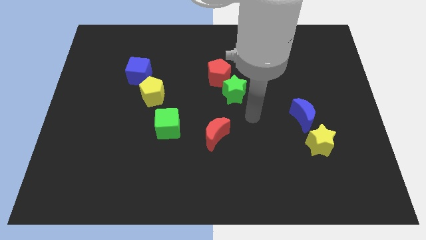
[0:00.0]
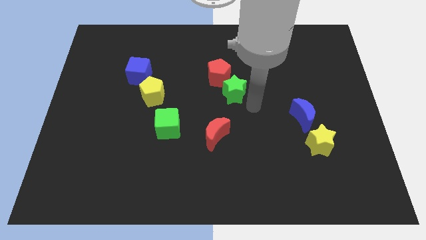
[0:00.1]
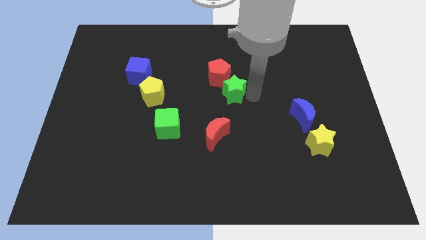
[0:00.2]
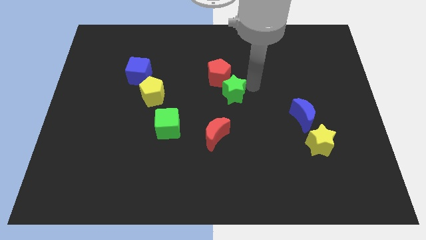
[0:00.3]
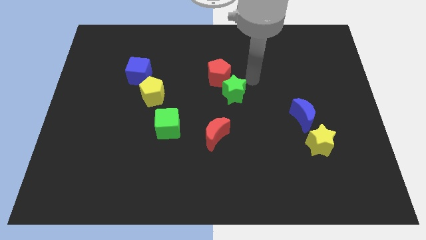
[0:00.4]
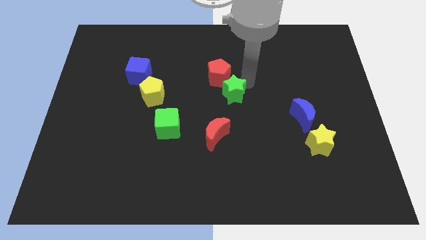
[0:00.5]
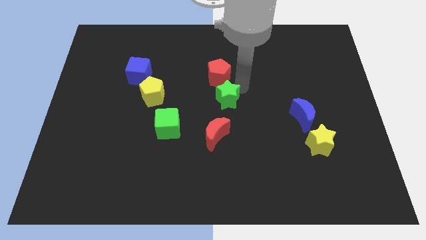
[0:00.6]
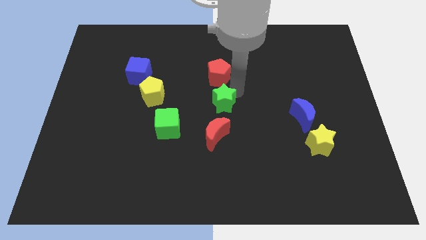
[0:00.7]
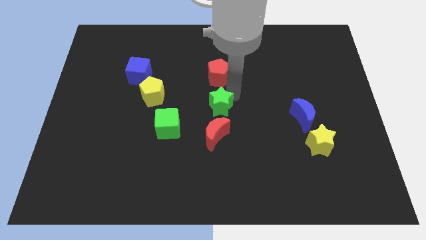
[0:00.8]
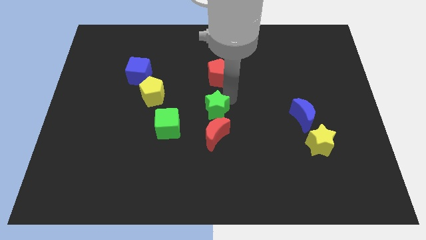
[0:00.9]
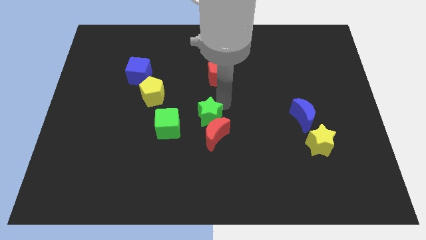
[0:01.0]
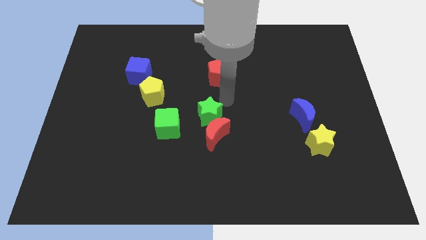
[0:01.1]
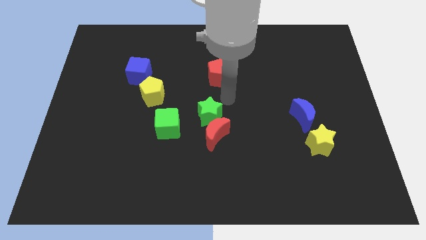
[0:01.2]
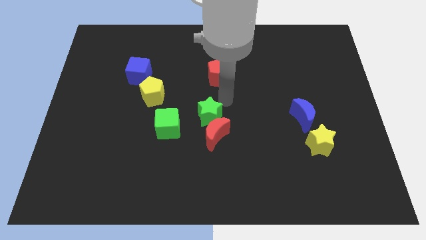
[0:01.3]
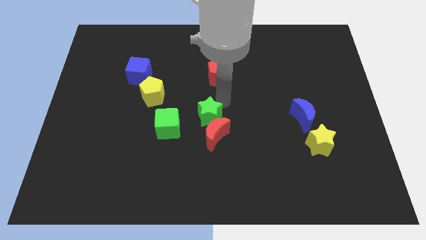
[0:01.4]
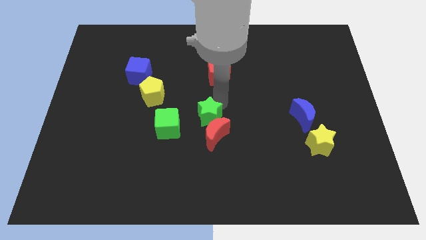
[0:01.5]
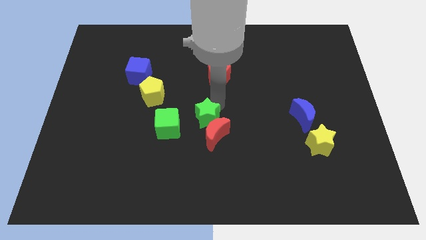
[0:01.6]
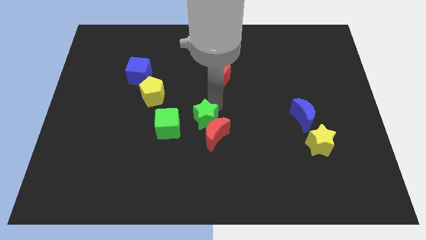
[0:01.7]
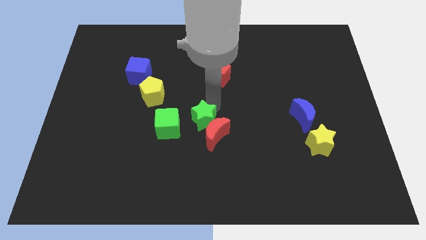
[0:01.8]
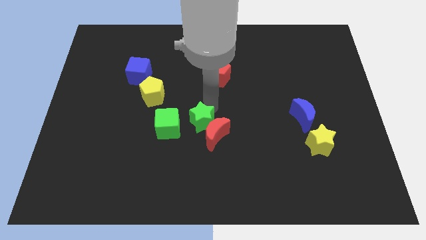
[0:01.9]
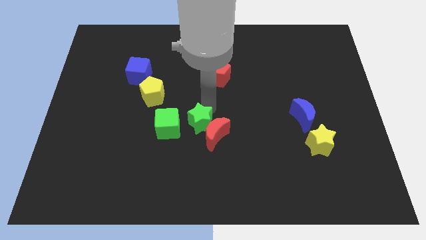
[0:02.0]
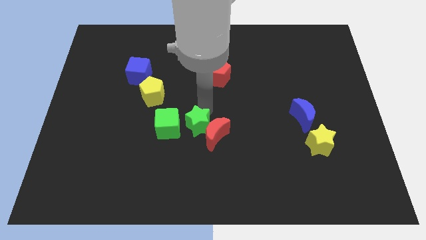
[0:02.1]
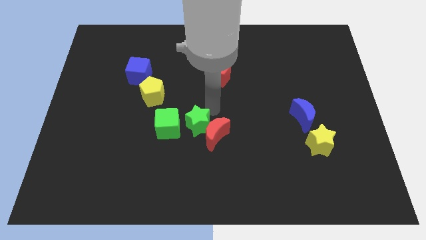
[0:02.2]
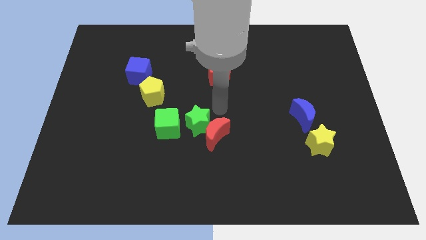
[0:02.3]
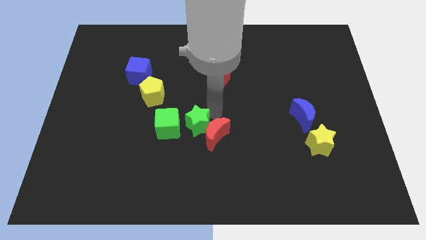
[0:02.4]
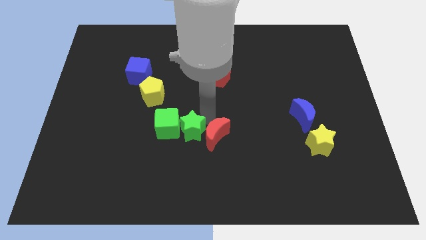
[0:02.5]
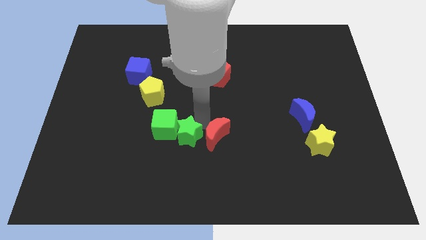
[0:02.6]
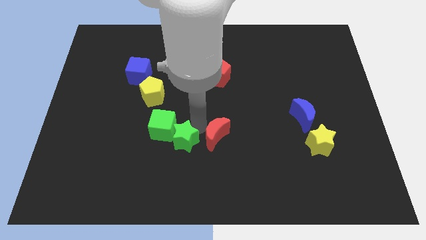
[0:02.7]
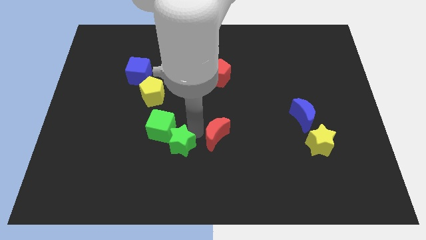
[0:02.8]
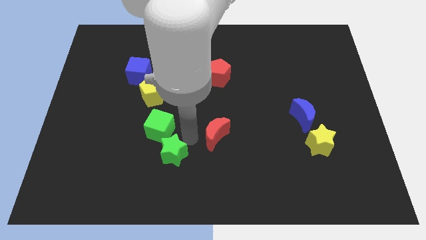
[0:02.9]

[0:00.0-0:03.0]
push the green star downwards and left

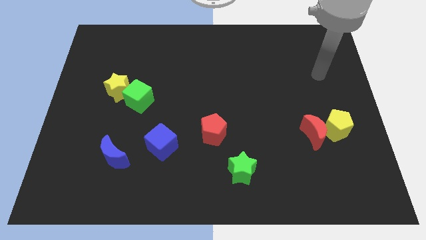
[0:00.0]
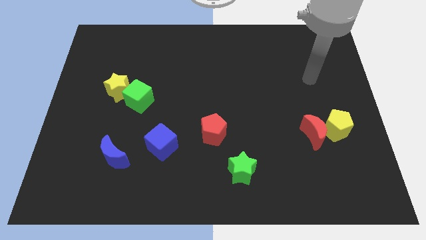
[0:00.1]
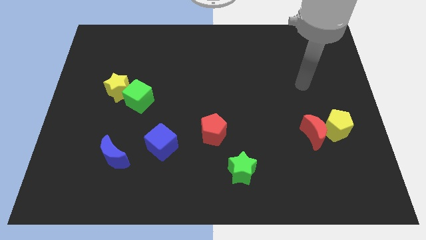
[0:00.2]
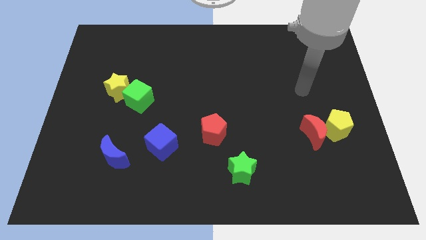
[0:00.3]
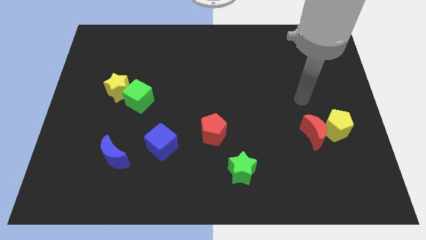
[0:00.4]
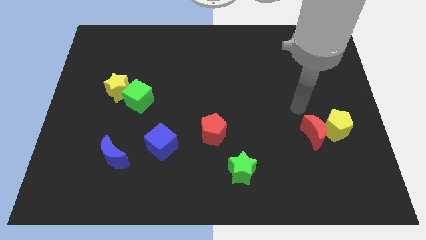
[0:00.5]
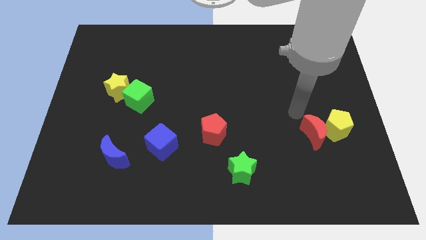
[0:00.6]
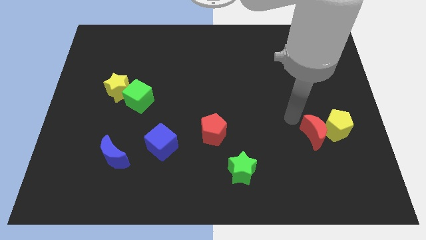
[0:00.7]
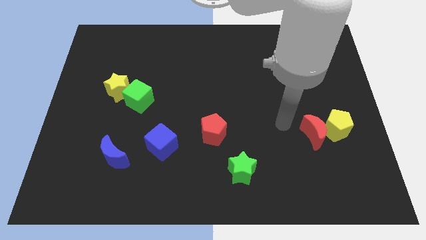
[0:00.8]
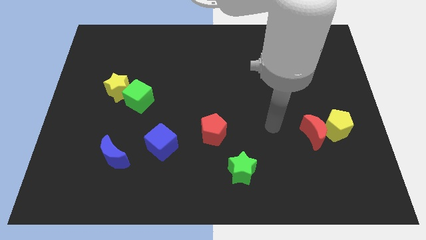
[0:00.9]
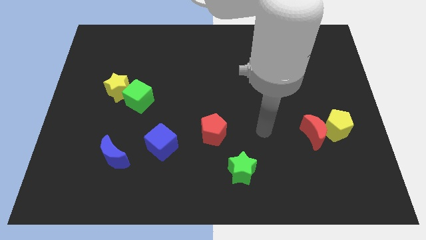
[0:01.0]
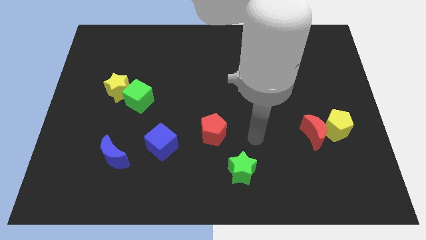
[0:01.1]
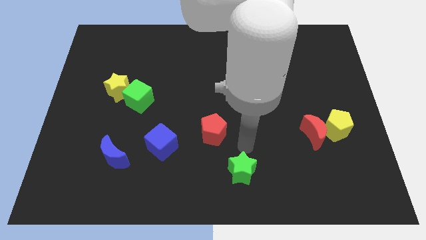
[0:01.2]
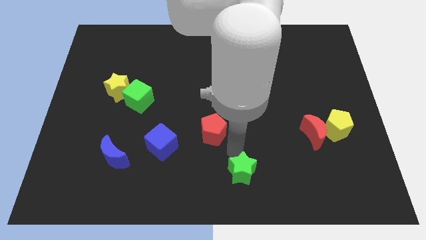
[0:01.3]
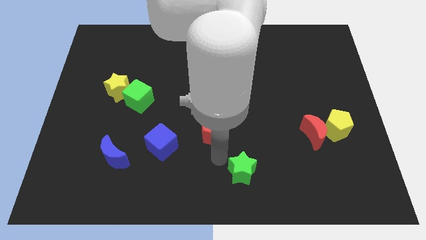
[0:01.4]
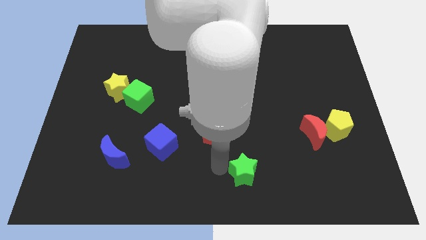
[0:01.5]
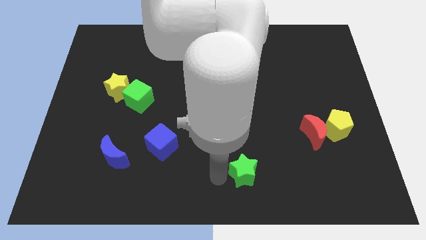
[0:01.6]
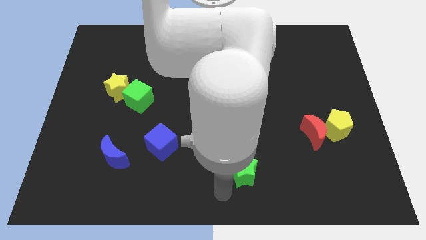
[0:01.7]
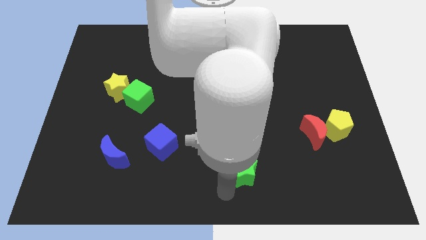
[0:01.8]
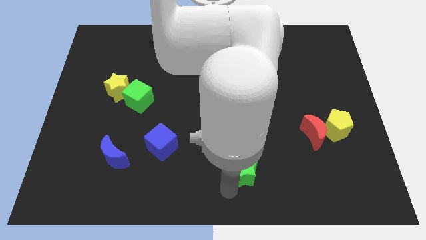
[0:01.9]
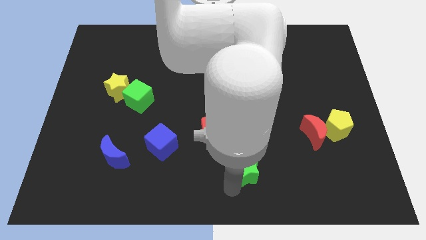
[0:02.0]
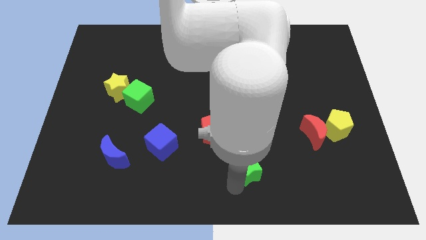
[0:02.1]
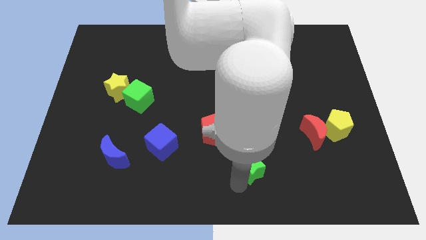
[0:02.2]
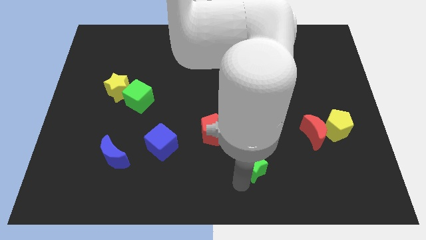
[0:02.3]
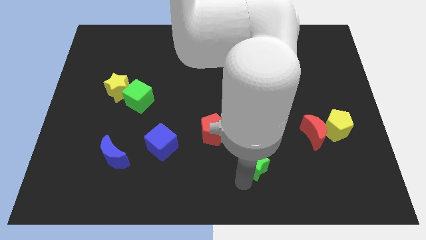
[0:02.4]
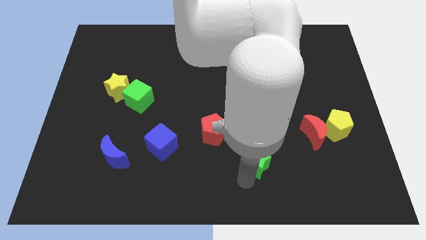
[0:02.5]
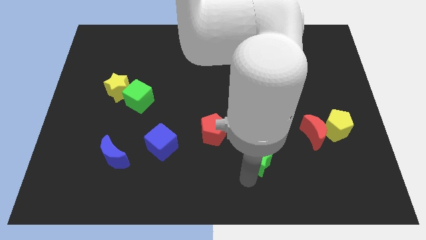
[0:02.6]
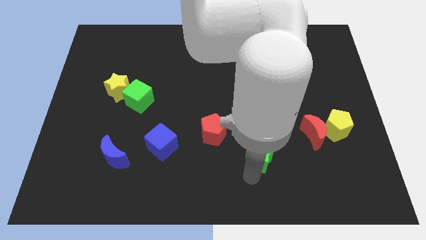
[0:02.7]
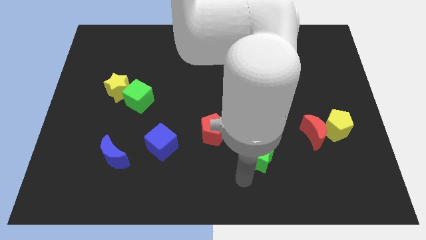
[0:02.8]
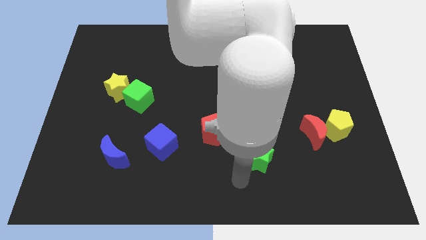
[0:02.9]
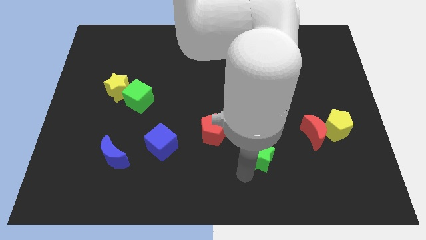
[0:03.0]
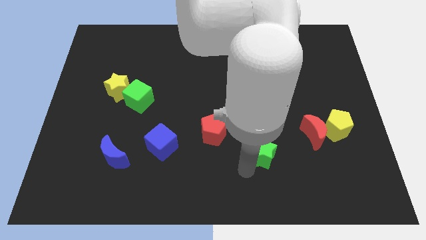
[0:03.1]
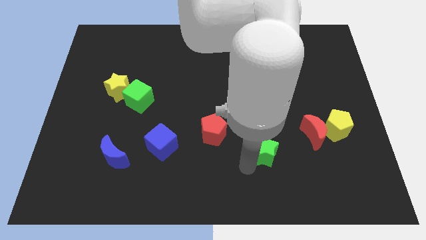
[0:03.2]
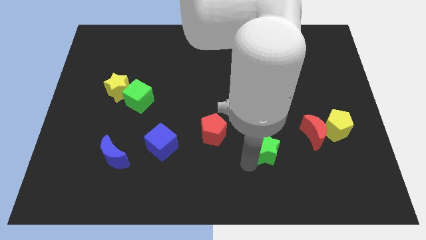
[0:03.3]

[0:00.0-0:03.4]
slide the green star a little upwards and right

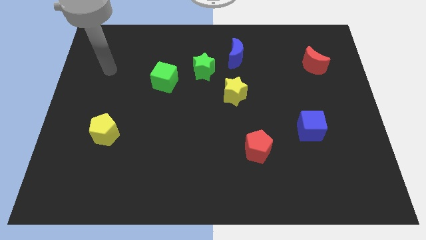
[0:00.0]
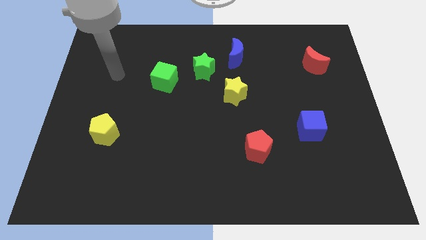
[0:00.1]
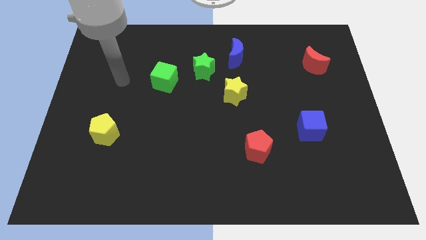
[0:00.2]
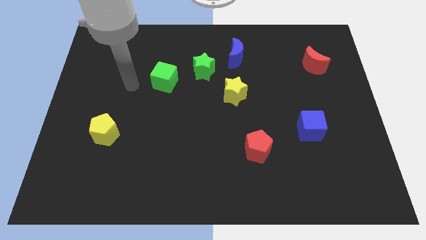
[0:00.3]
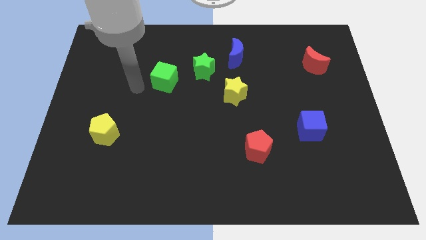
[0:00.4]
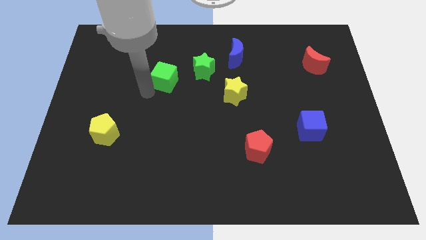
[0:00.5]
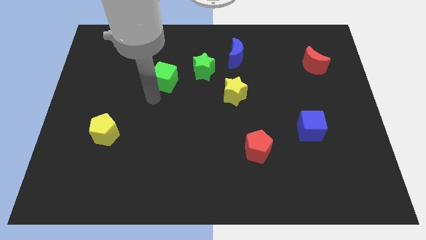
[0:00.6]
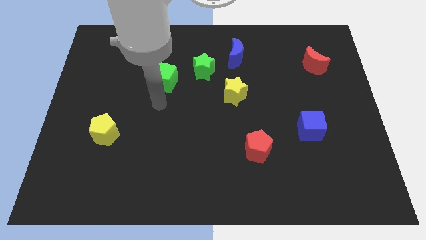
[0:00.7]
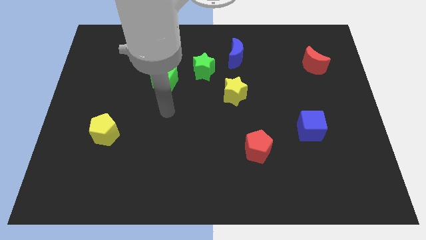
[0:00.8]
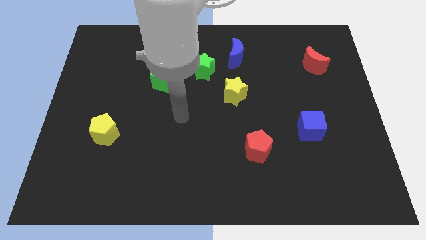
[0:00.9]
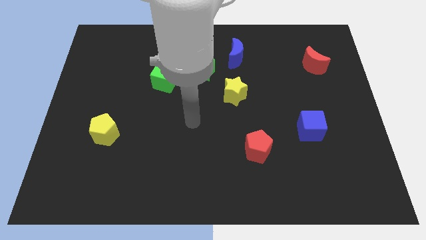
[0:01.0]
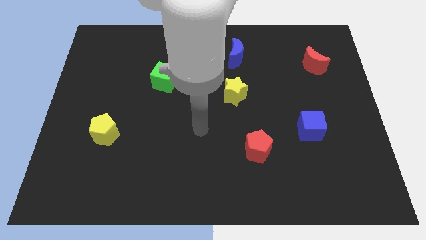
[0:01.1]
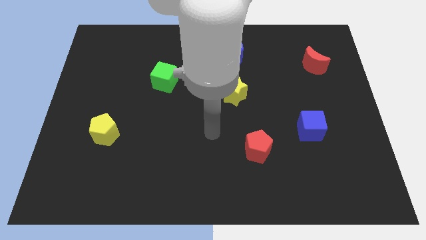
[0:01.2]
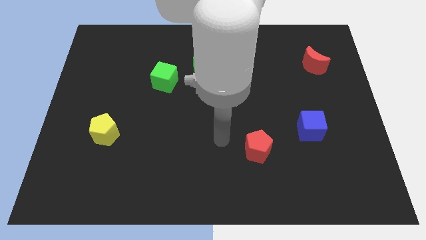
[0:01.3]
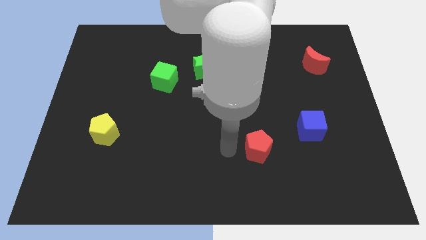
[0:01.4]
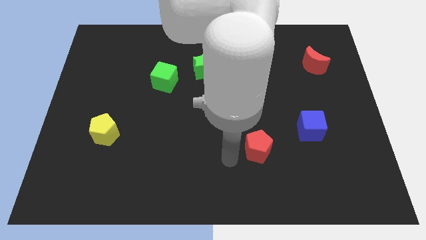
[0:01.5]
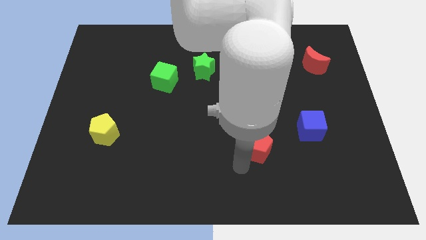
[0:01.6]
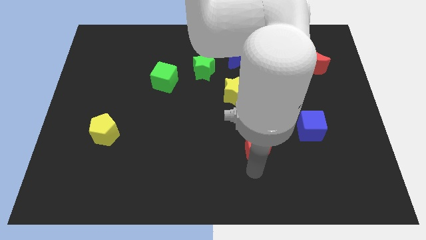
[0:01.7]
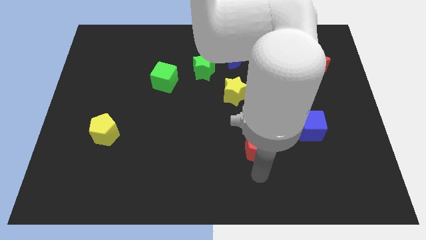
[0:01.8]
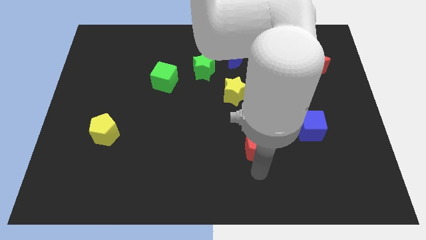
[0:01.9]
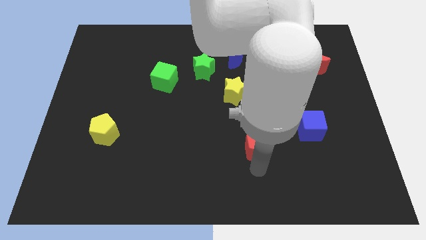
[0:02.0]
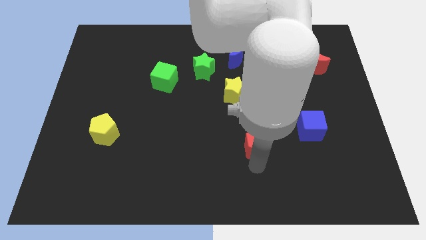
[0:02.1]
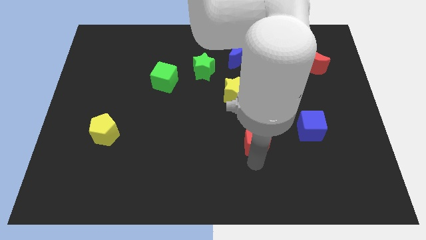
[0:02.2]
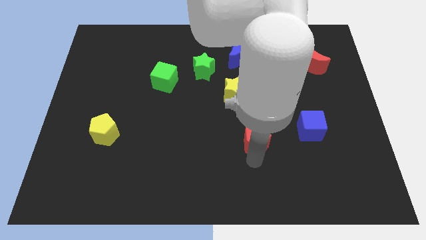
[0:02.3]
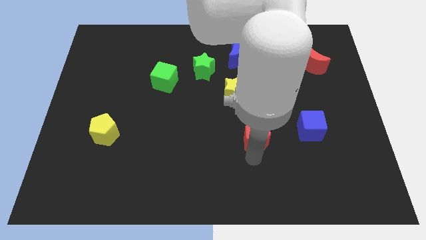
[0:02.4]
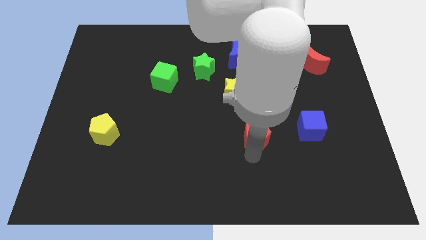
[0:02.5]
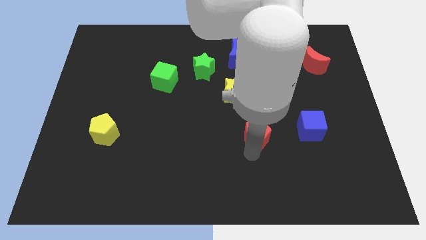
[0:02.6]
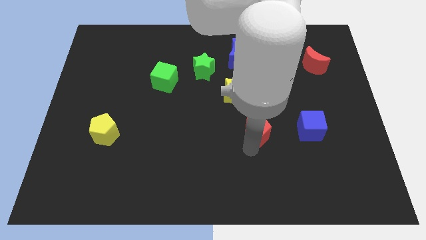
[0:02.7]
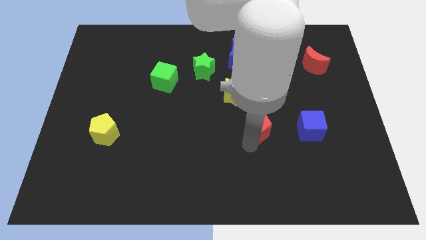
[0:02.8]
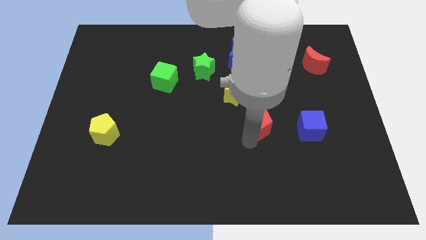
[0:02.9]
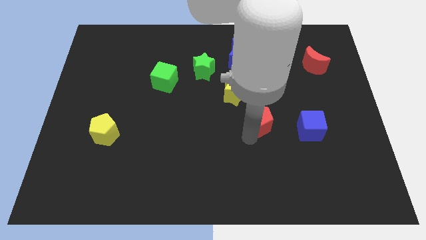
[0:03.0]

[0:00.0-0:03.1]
push the red pentagon a little up
